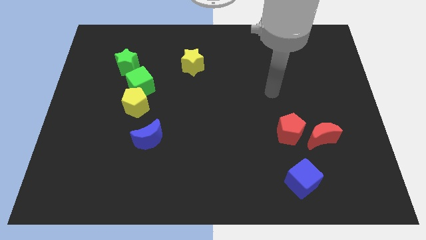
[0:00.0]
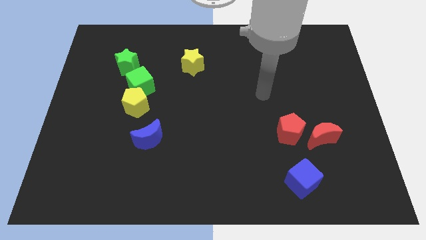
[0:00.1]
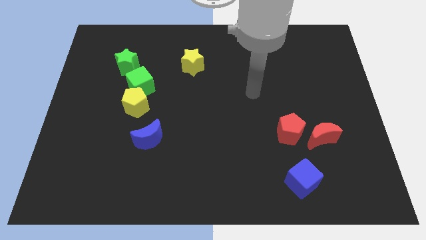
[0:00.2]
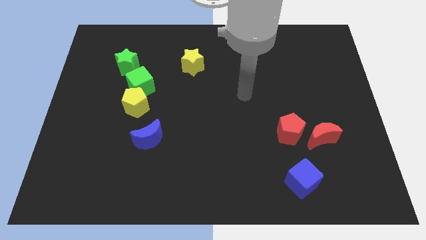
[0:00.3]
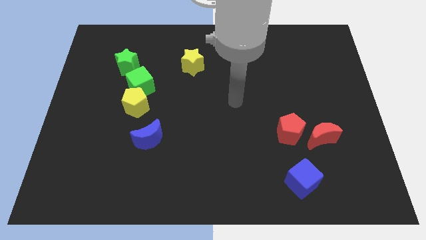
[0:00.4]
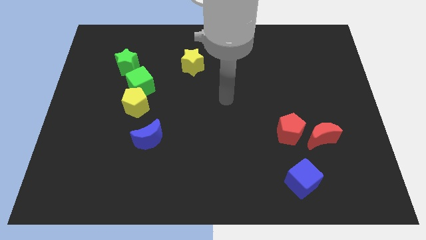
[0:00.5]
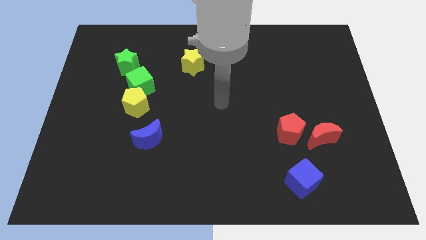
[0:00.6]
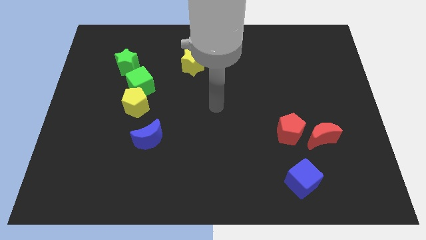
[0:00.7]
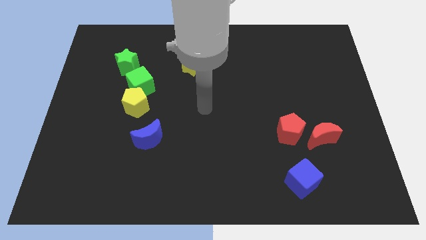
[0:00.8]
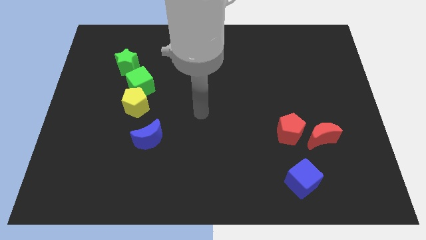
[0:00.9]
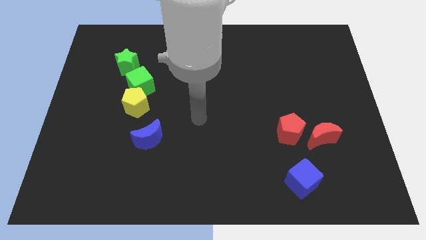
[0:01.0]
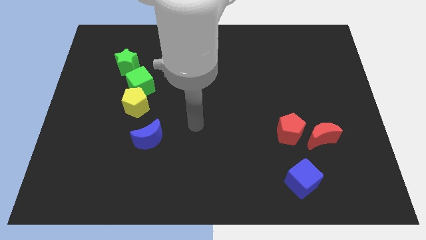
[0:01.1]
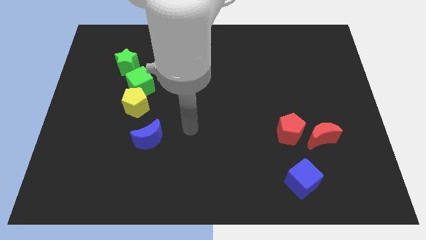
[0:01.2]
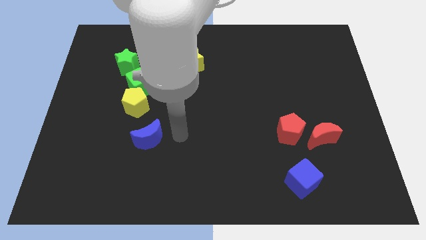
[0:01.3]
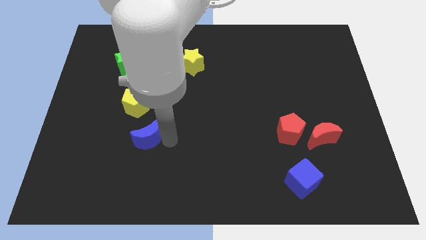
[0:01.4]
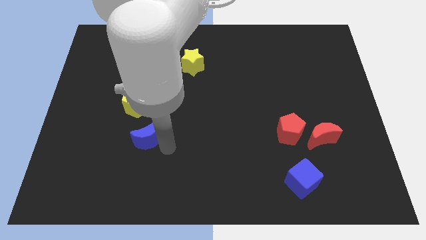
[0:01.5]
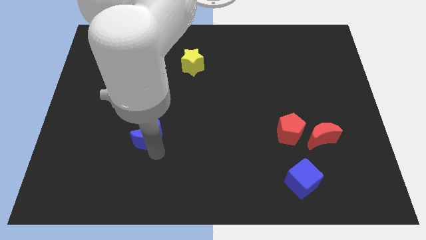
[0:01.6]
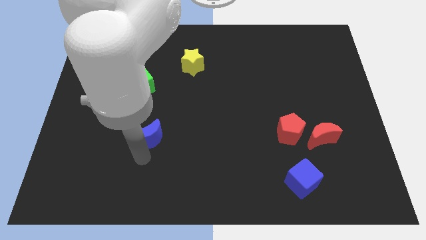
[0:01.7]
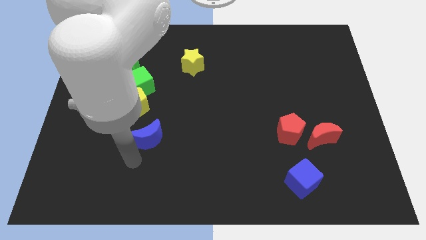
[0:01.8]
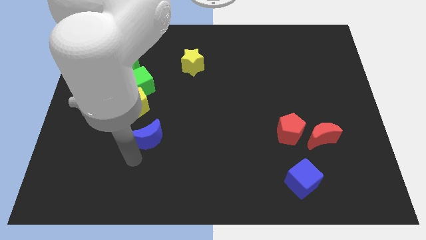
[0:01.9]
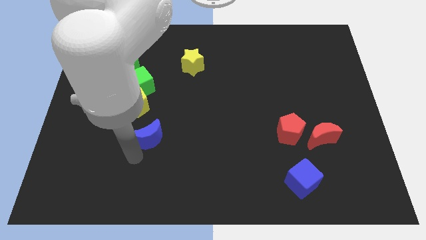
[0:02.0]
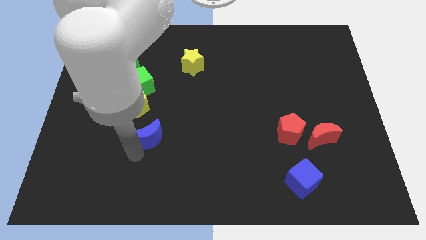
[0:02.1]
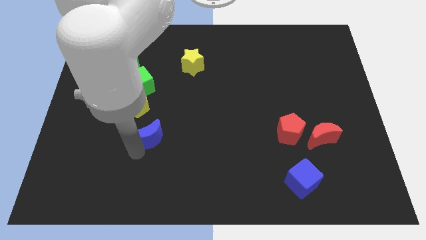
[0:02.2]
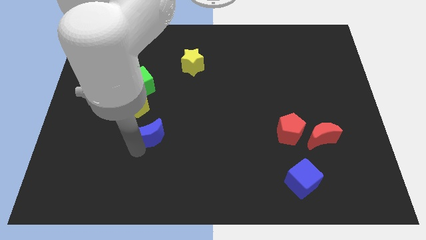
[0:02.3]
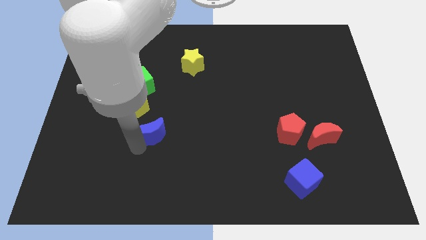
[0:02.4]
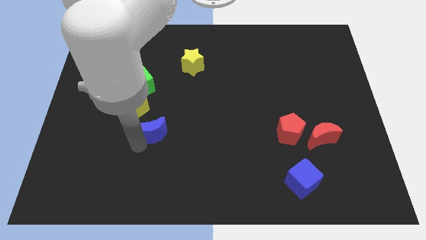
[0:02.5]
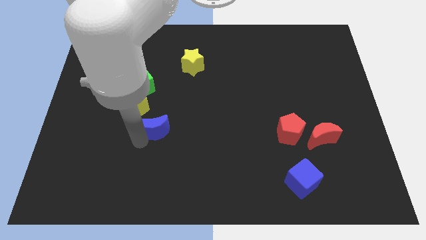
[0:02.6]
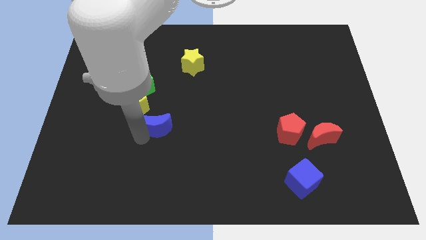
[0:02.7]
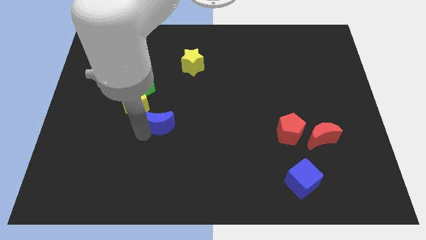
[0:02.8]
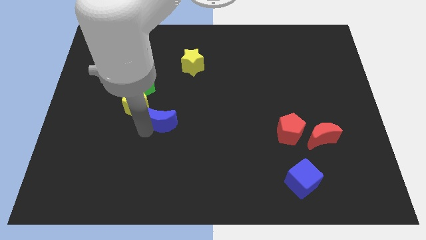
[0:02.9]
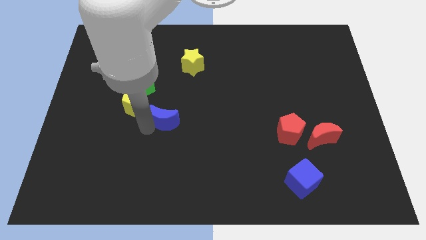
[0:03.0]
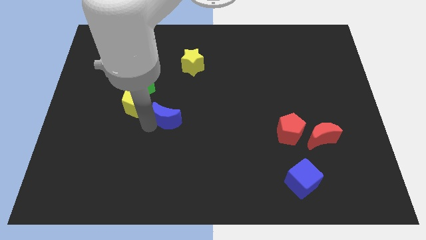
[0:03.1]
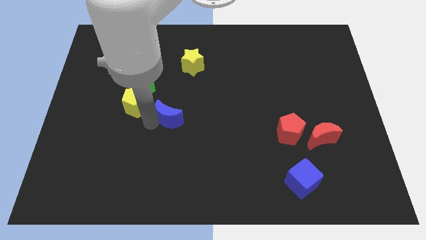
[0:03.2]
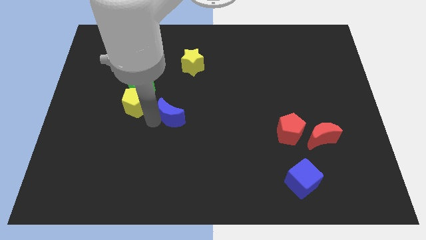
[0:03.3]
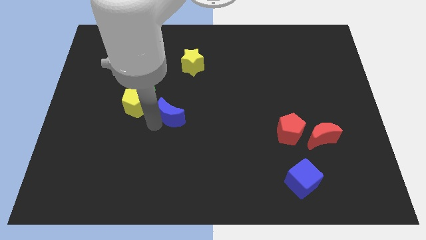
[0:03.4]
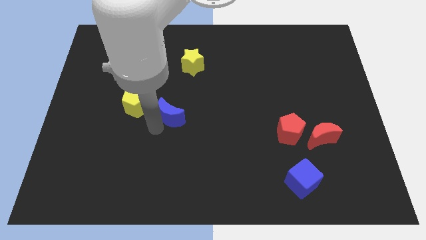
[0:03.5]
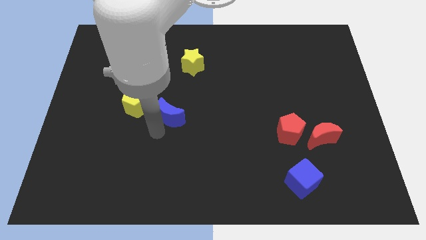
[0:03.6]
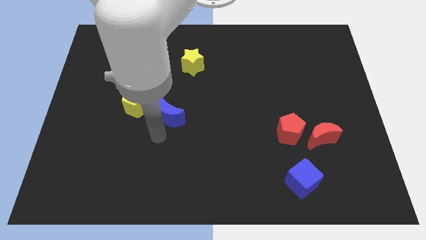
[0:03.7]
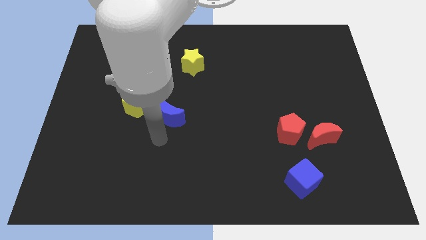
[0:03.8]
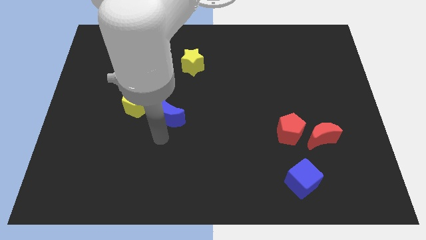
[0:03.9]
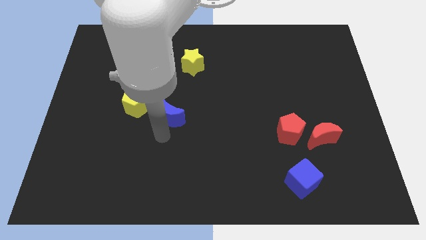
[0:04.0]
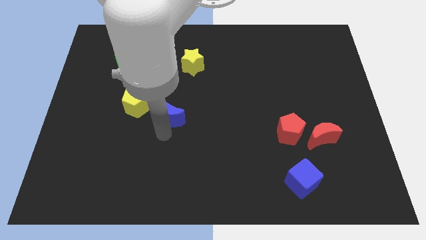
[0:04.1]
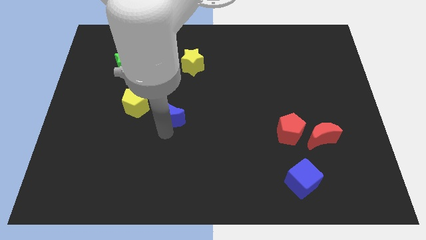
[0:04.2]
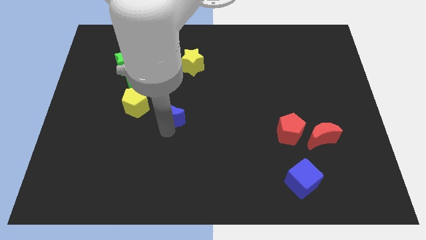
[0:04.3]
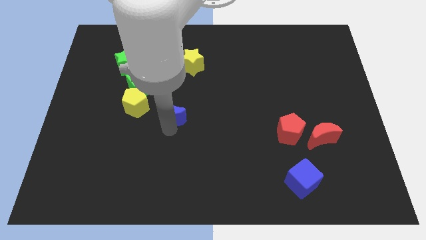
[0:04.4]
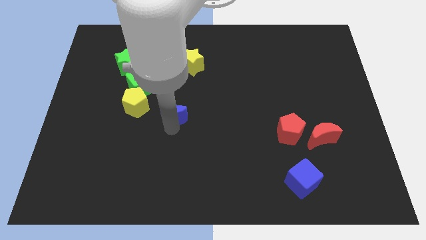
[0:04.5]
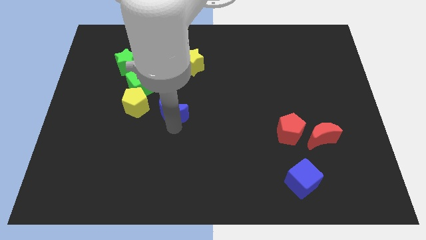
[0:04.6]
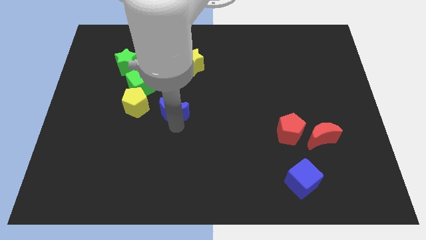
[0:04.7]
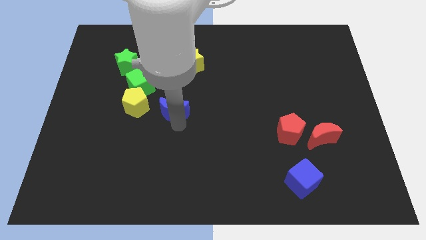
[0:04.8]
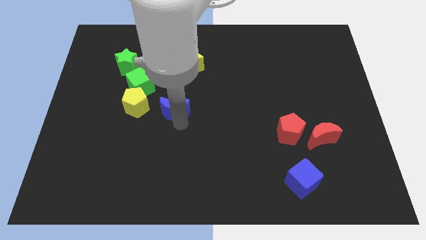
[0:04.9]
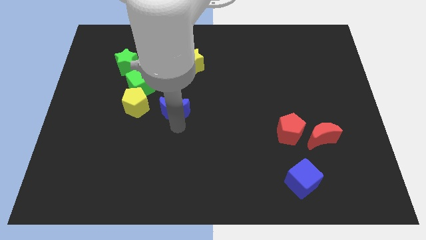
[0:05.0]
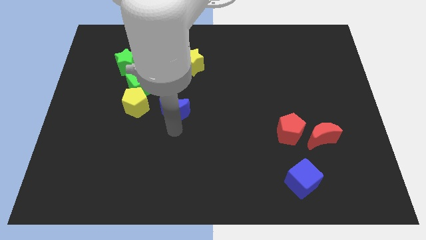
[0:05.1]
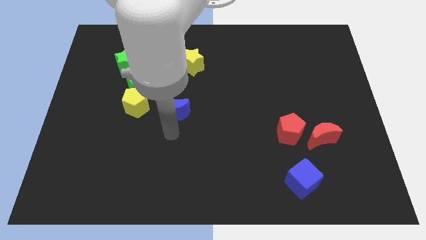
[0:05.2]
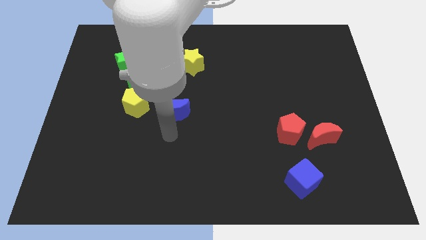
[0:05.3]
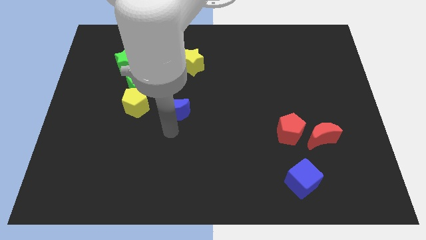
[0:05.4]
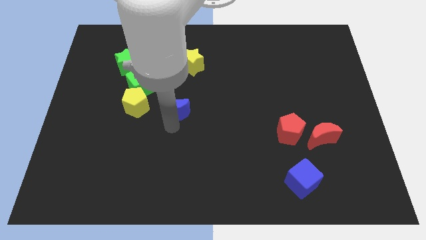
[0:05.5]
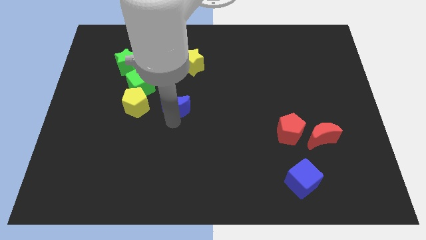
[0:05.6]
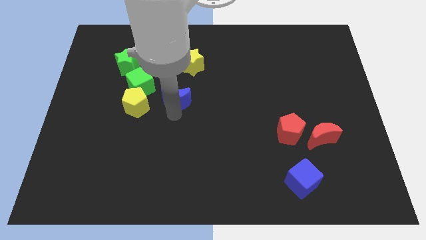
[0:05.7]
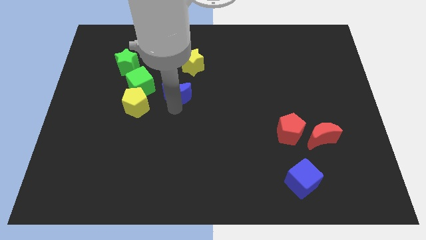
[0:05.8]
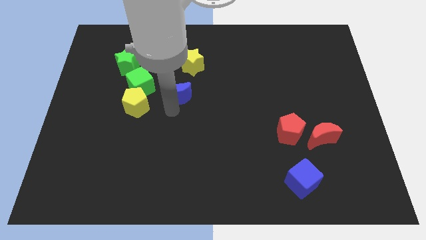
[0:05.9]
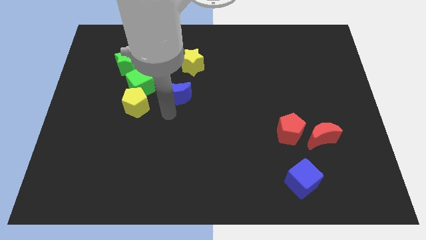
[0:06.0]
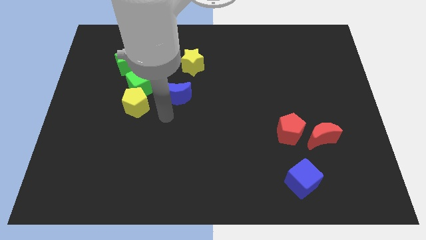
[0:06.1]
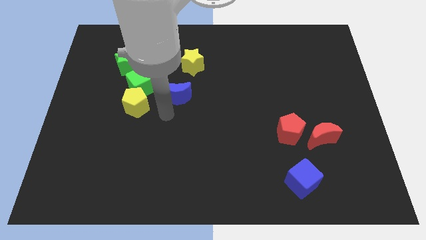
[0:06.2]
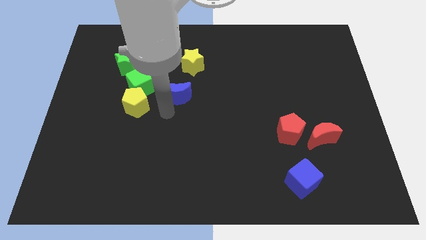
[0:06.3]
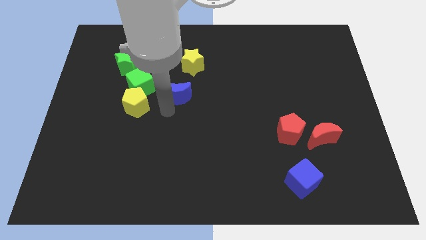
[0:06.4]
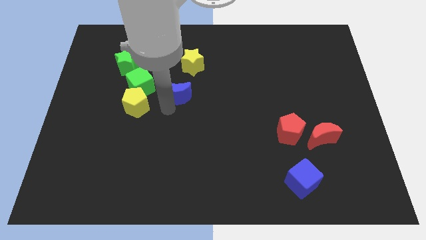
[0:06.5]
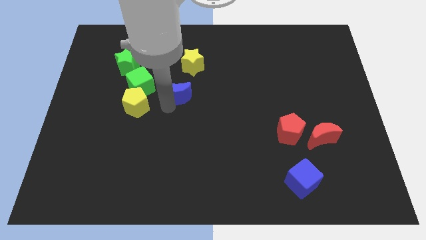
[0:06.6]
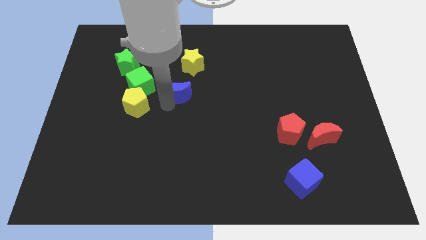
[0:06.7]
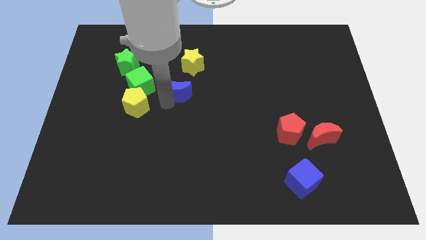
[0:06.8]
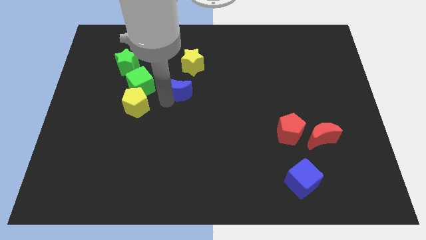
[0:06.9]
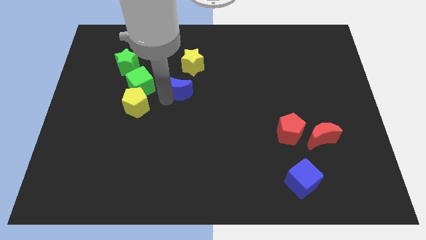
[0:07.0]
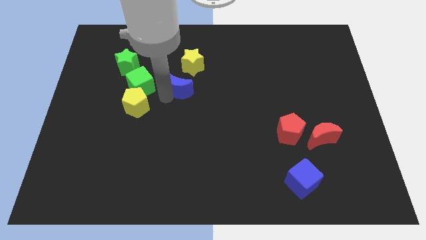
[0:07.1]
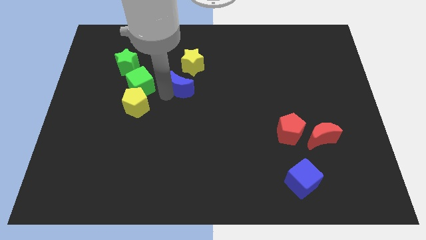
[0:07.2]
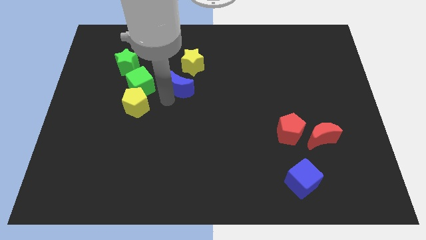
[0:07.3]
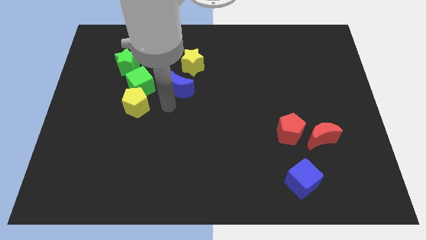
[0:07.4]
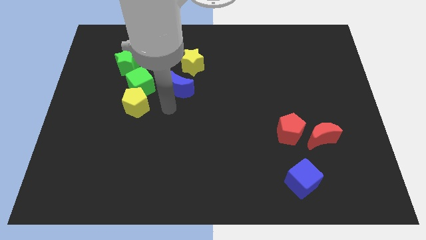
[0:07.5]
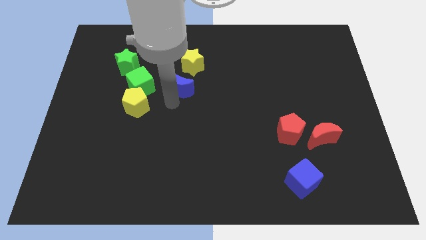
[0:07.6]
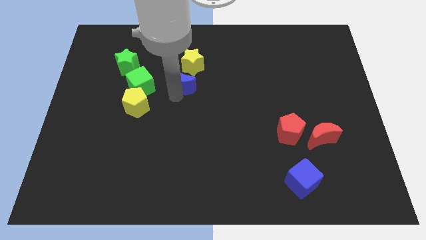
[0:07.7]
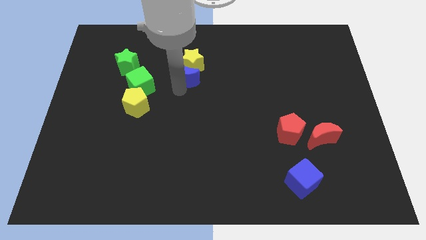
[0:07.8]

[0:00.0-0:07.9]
push the blue moon next to the yellow star

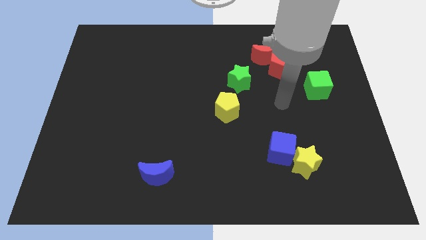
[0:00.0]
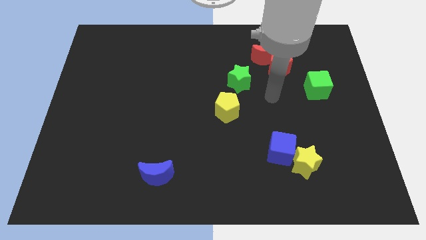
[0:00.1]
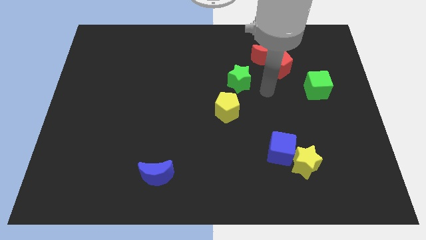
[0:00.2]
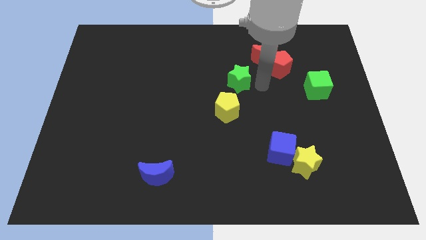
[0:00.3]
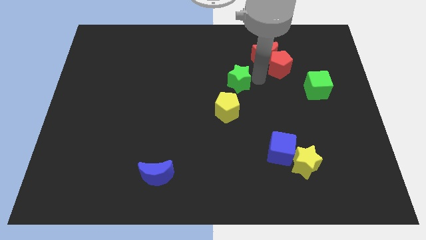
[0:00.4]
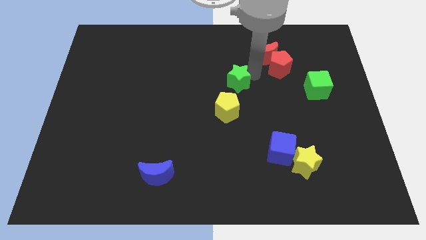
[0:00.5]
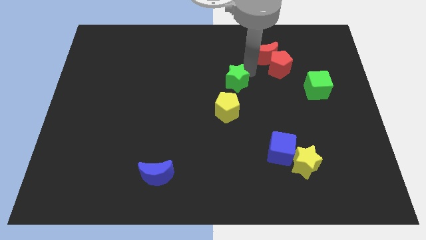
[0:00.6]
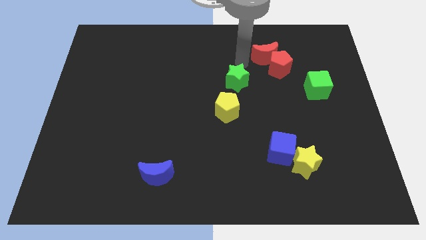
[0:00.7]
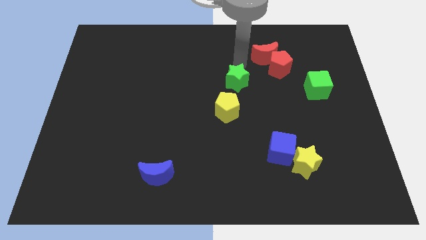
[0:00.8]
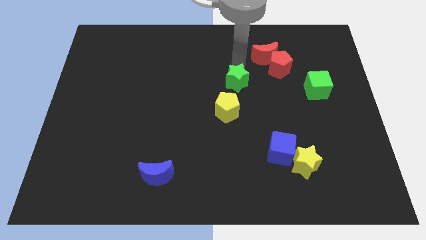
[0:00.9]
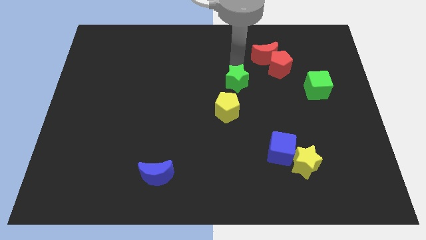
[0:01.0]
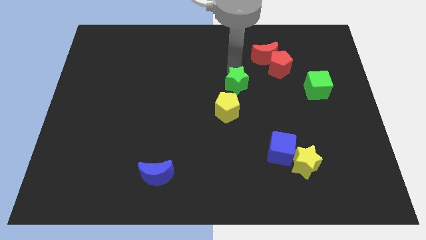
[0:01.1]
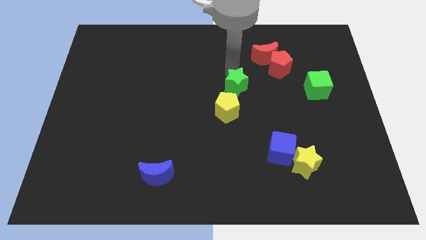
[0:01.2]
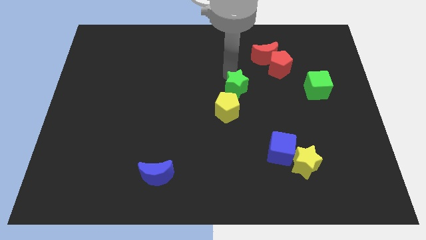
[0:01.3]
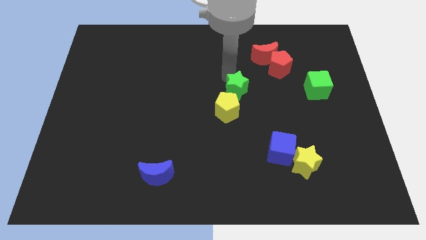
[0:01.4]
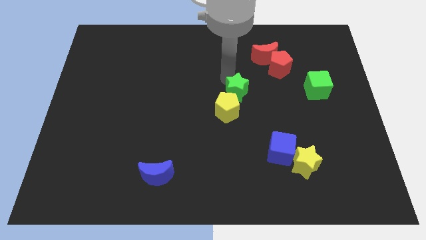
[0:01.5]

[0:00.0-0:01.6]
push the green star close to the yellow pentagon
